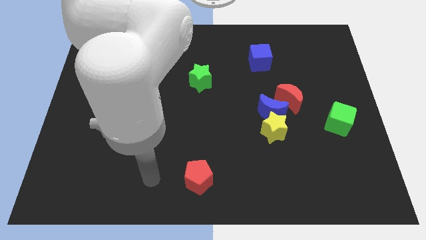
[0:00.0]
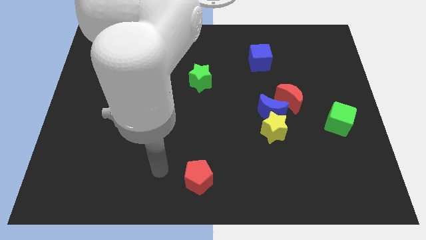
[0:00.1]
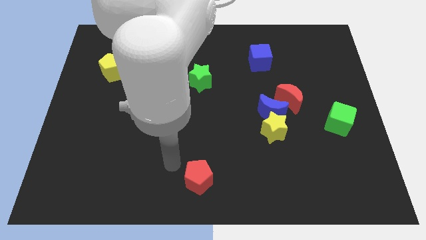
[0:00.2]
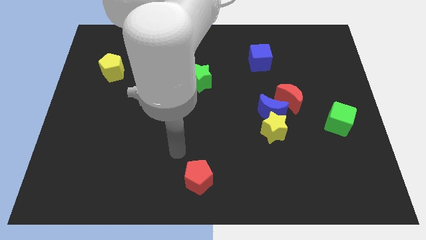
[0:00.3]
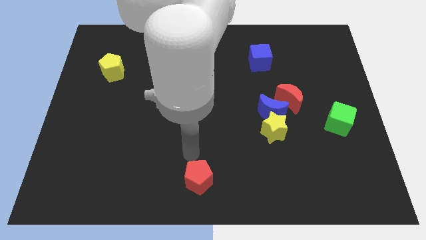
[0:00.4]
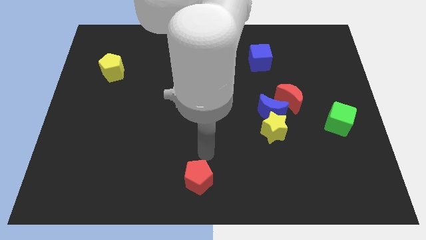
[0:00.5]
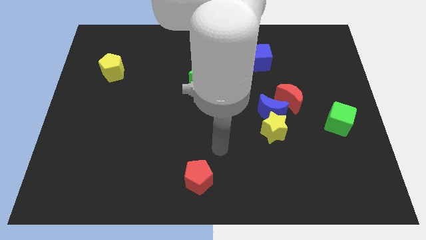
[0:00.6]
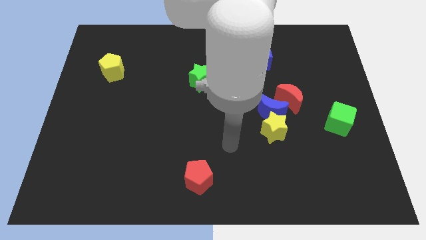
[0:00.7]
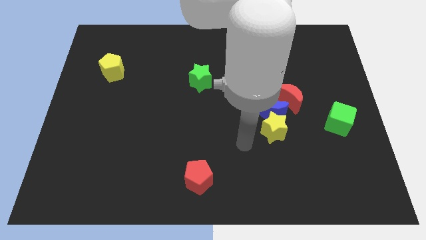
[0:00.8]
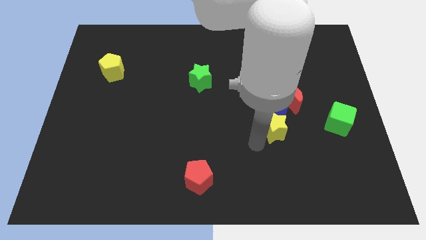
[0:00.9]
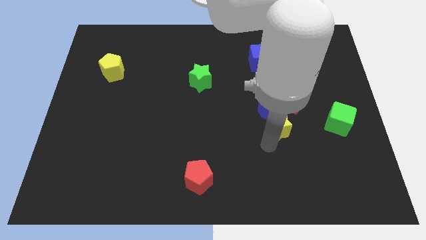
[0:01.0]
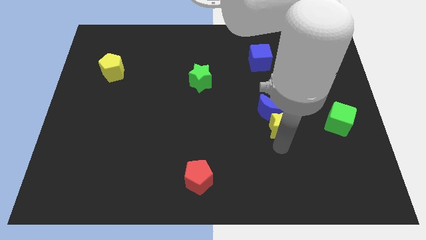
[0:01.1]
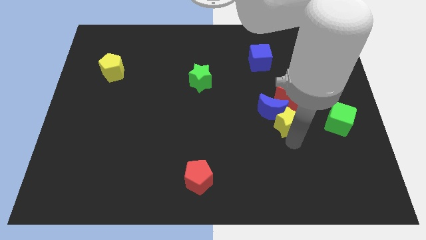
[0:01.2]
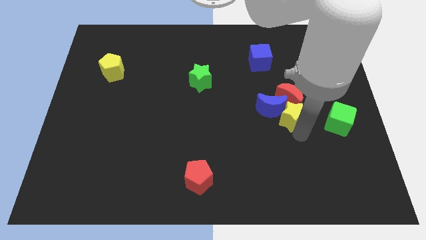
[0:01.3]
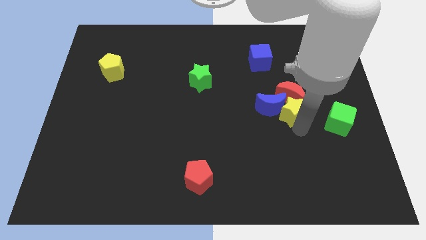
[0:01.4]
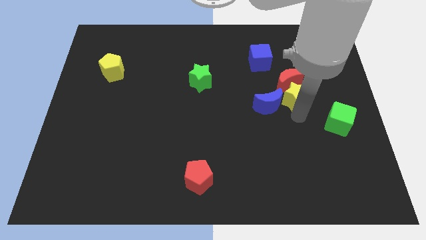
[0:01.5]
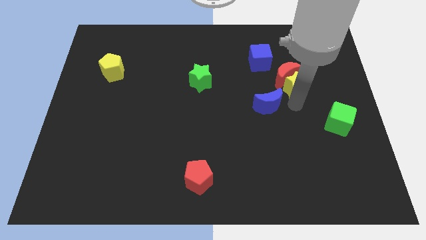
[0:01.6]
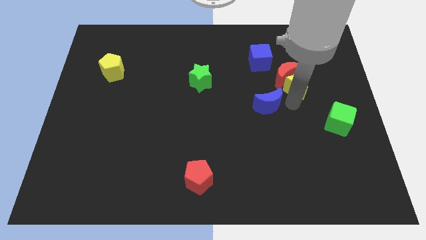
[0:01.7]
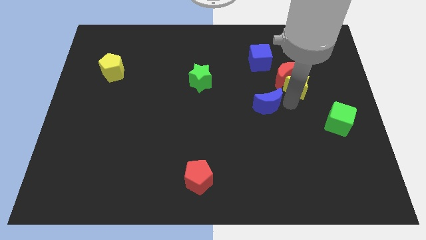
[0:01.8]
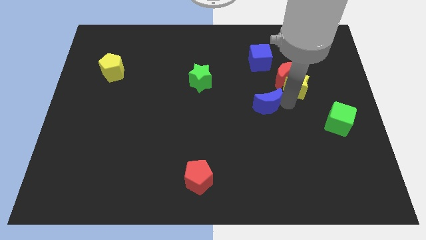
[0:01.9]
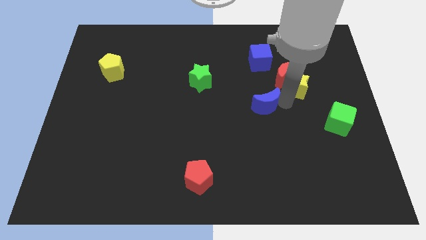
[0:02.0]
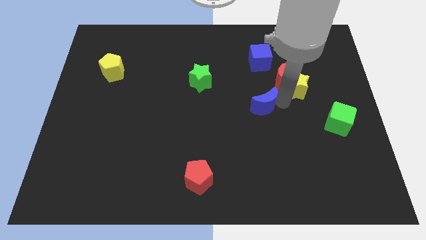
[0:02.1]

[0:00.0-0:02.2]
move the blue moon away from the yellow star and red moon

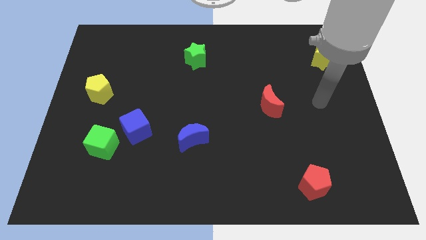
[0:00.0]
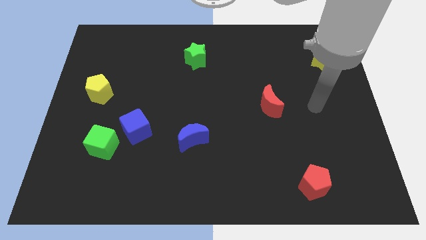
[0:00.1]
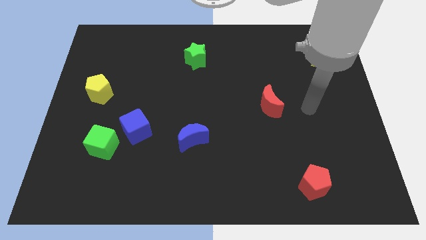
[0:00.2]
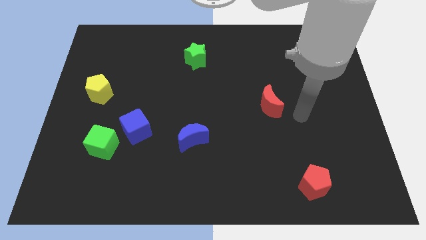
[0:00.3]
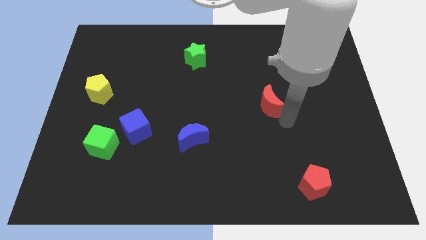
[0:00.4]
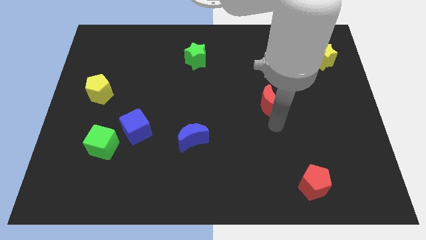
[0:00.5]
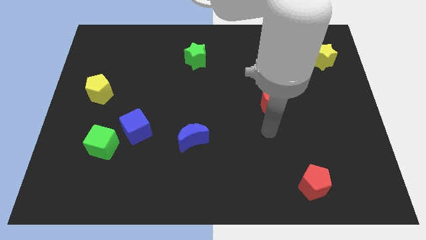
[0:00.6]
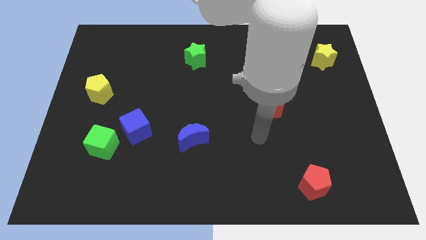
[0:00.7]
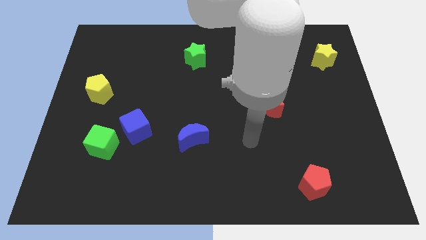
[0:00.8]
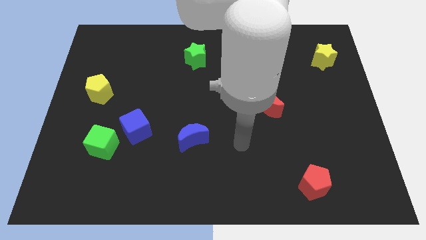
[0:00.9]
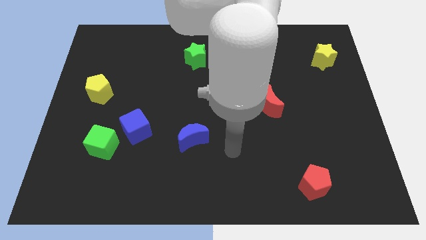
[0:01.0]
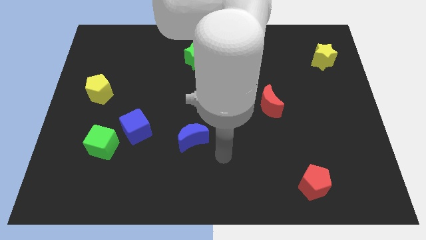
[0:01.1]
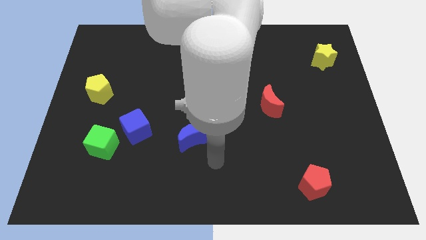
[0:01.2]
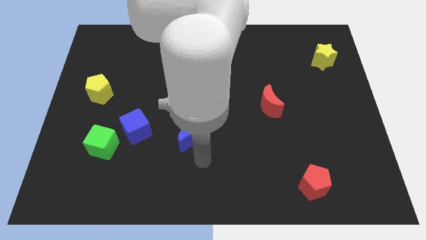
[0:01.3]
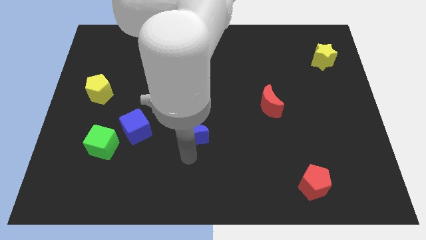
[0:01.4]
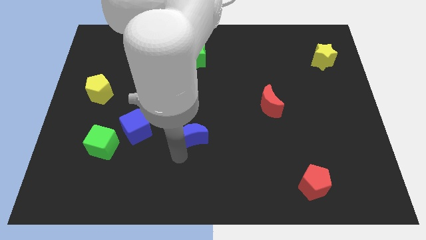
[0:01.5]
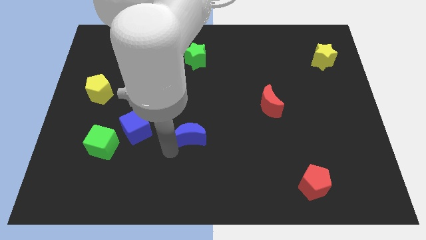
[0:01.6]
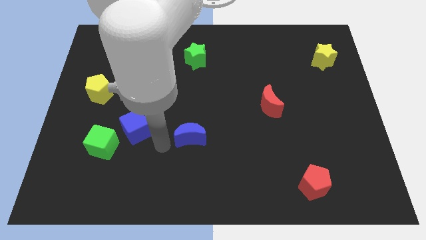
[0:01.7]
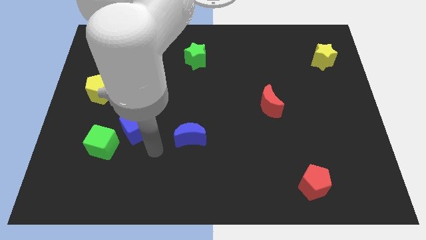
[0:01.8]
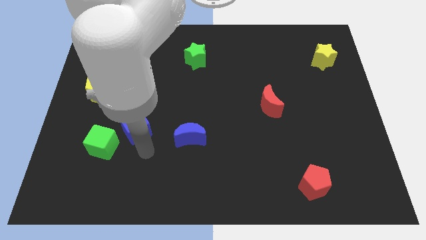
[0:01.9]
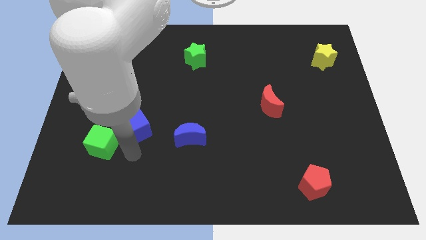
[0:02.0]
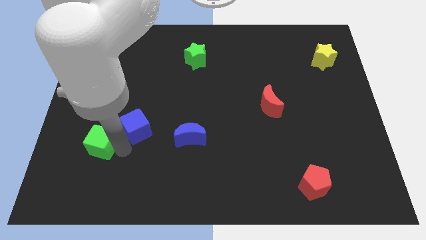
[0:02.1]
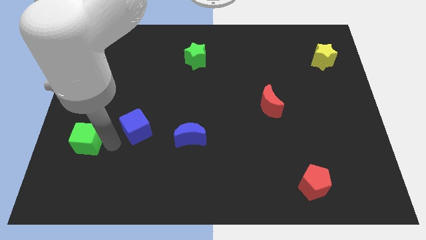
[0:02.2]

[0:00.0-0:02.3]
pull the blue cube apart from the green cube

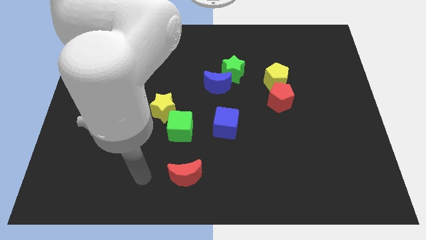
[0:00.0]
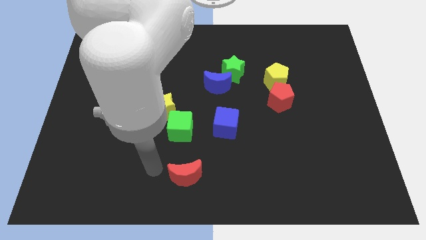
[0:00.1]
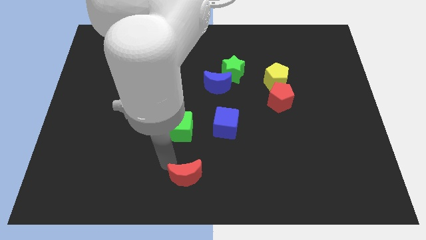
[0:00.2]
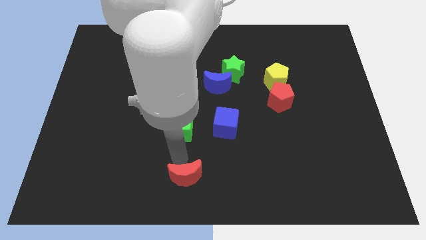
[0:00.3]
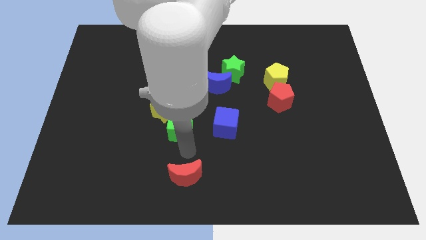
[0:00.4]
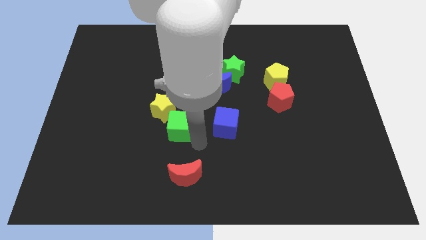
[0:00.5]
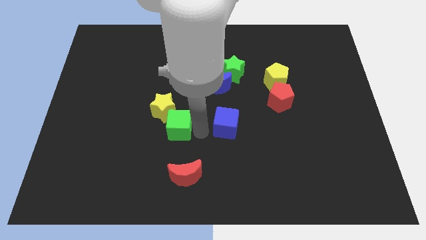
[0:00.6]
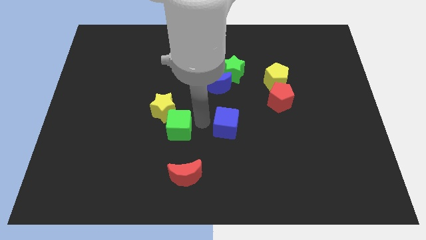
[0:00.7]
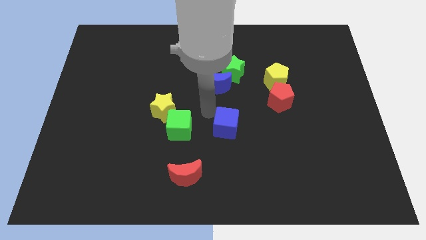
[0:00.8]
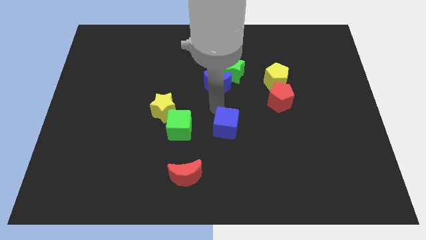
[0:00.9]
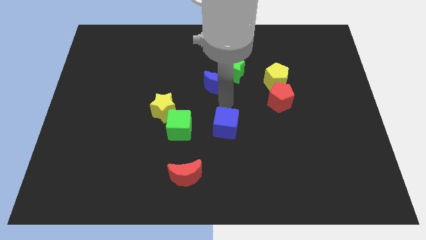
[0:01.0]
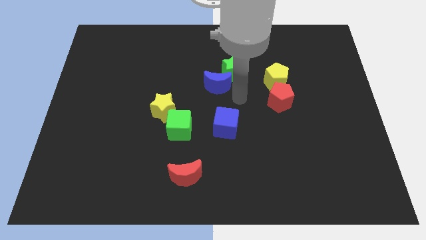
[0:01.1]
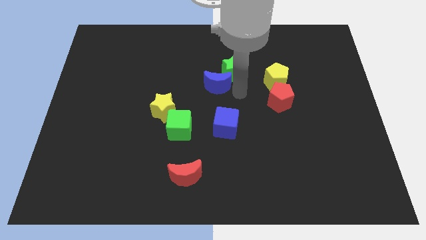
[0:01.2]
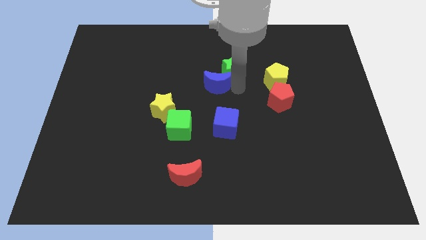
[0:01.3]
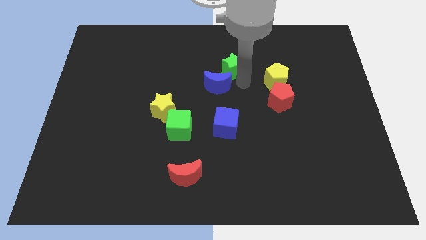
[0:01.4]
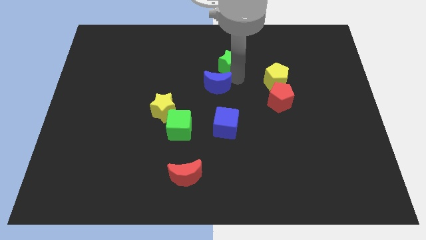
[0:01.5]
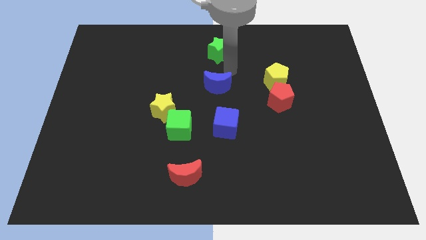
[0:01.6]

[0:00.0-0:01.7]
move the blue moon away from the green star

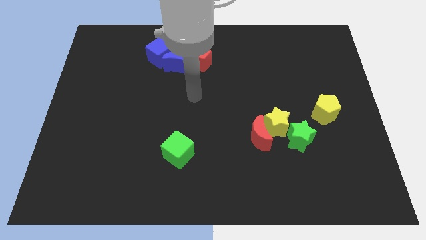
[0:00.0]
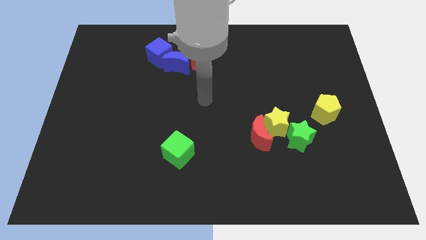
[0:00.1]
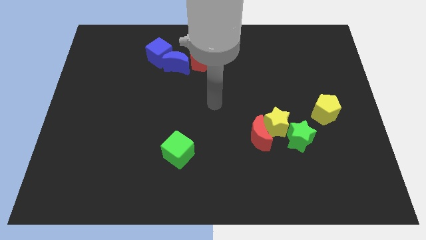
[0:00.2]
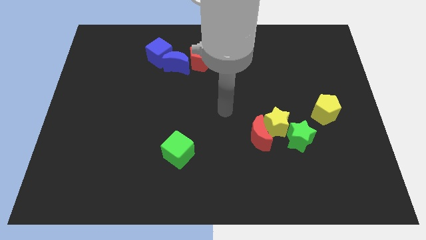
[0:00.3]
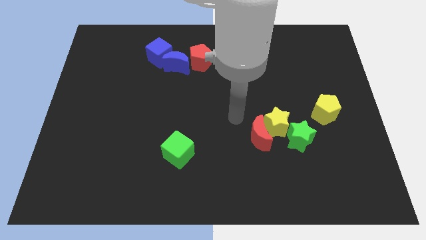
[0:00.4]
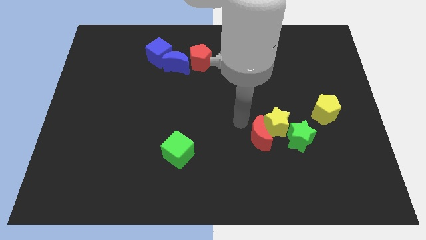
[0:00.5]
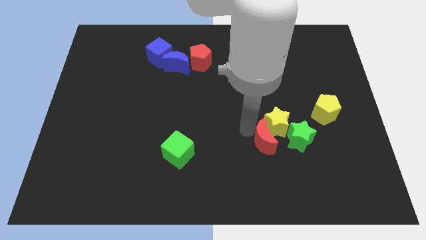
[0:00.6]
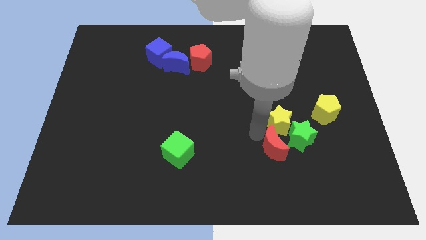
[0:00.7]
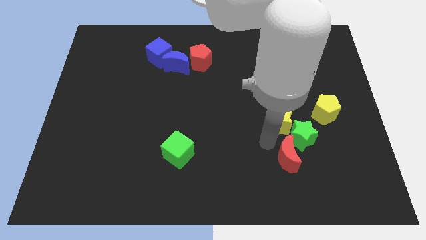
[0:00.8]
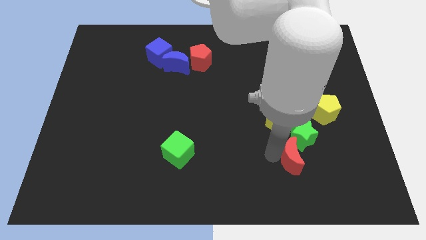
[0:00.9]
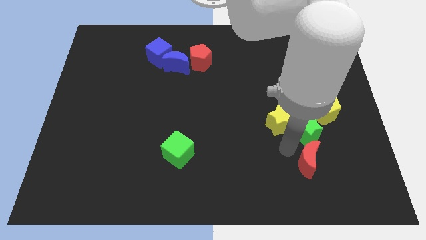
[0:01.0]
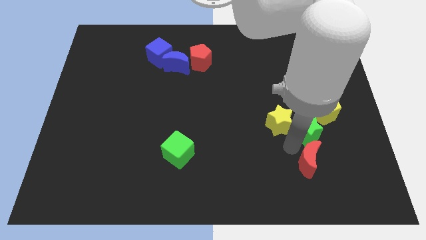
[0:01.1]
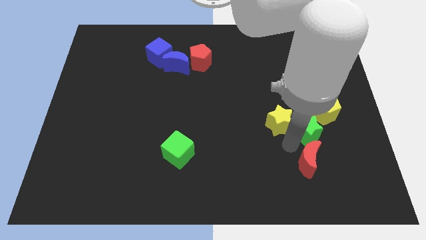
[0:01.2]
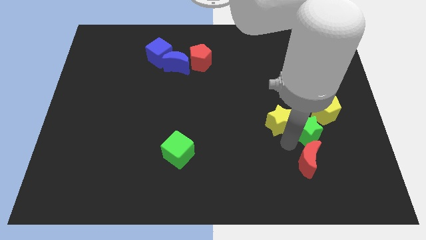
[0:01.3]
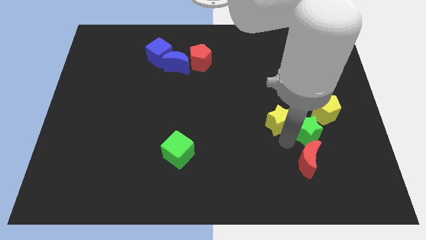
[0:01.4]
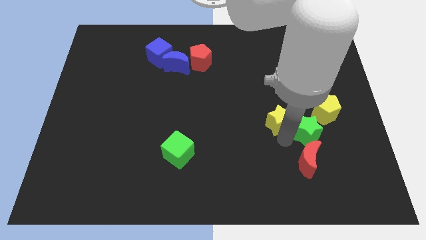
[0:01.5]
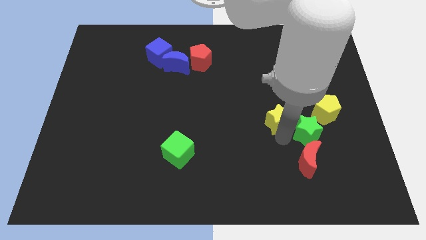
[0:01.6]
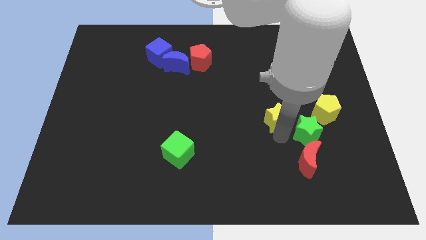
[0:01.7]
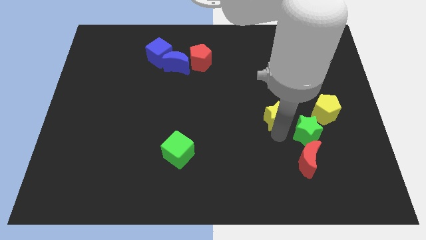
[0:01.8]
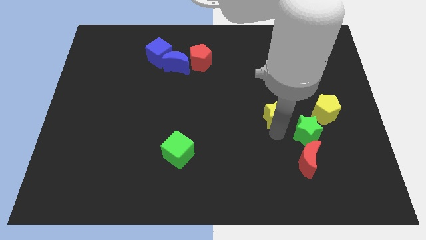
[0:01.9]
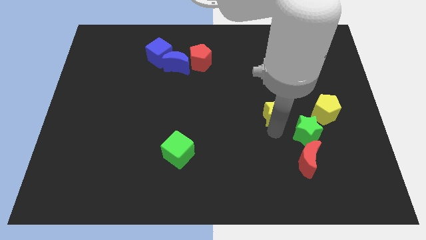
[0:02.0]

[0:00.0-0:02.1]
move the yellow star away from the red moon and green star

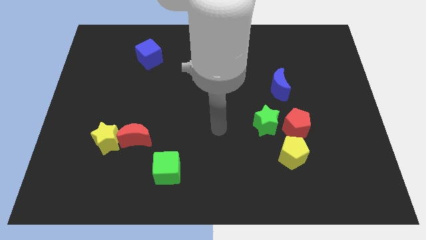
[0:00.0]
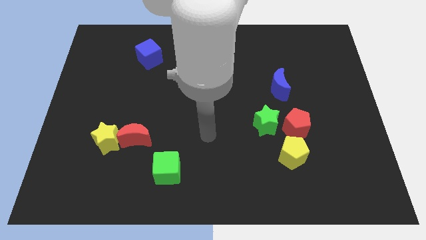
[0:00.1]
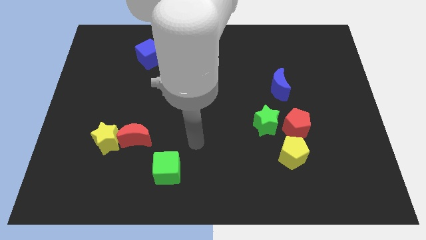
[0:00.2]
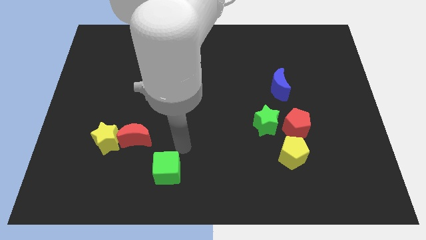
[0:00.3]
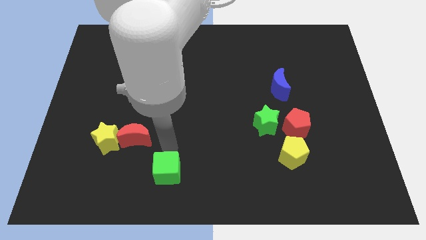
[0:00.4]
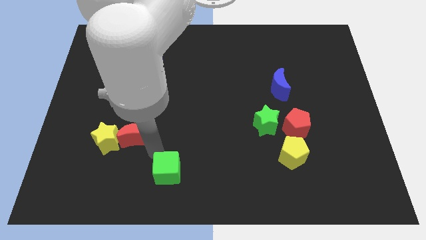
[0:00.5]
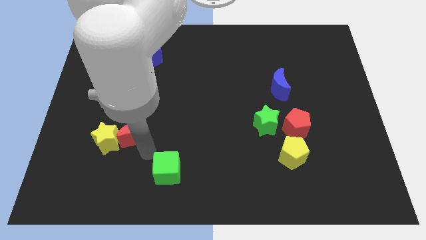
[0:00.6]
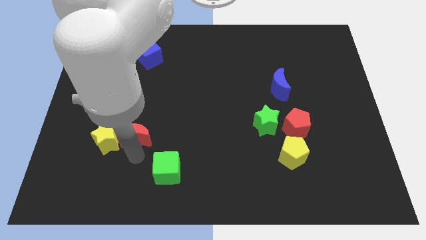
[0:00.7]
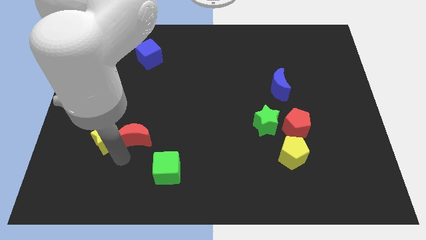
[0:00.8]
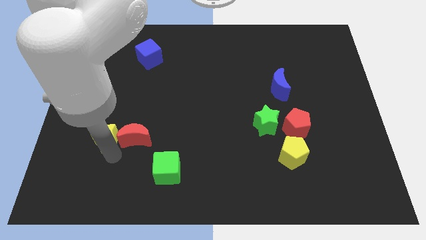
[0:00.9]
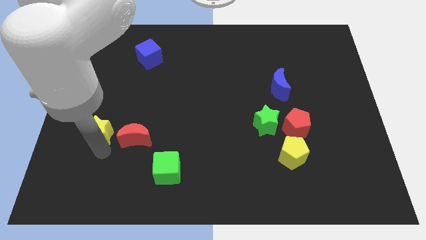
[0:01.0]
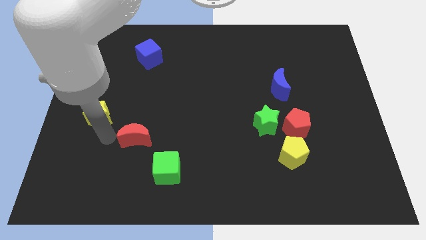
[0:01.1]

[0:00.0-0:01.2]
move the red moon away from the yellow star
